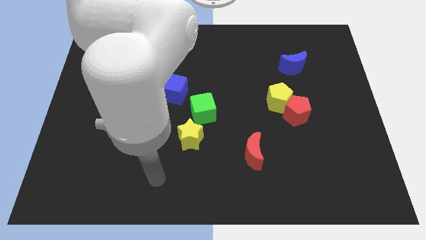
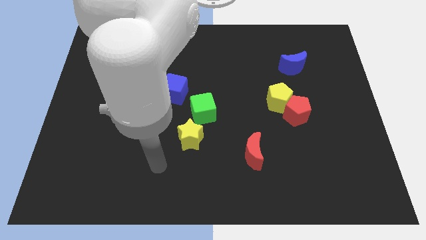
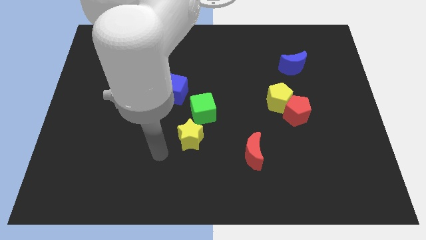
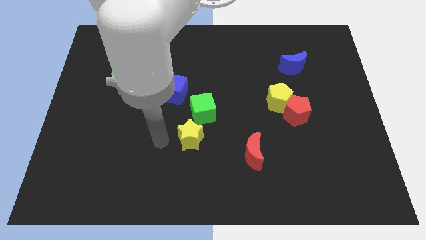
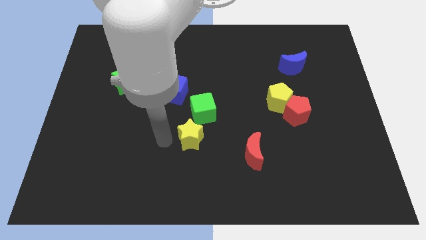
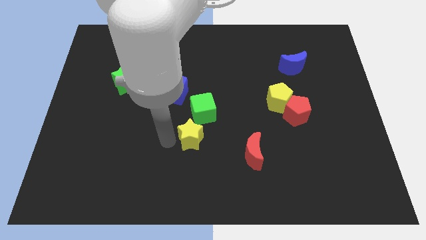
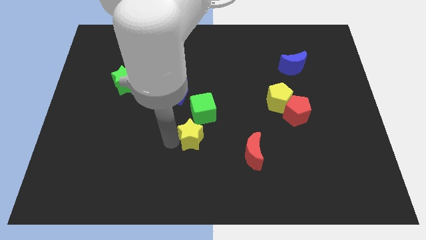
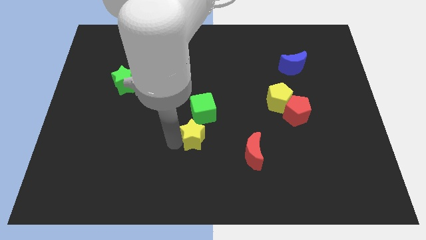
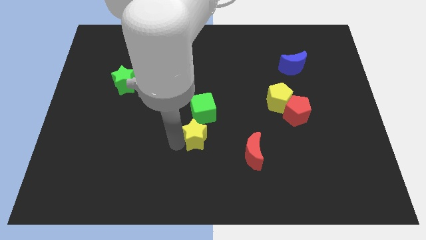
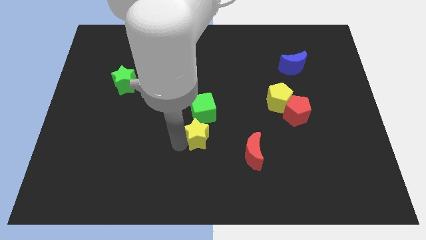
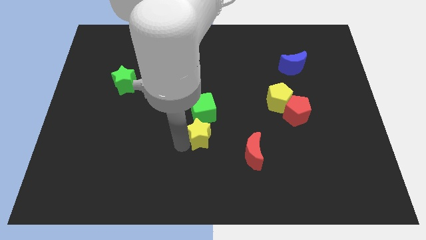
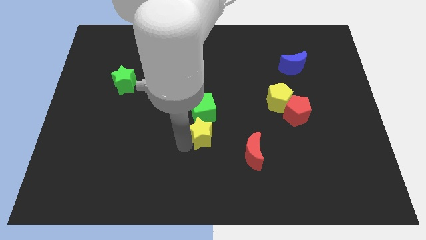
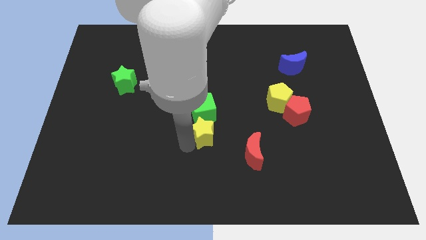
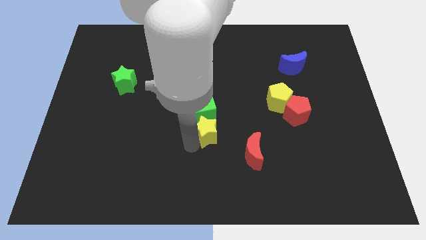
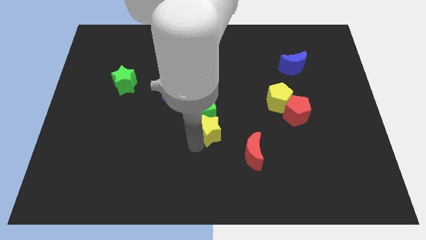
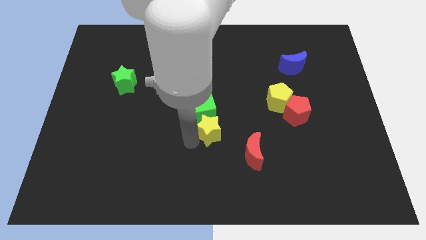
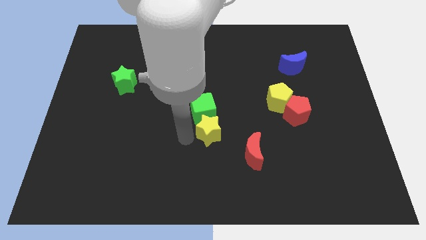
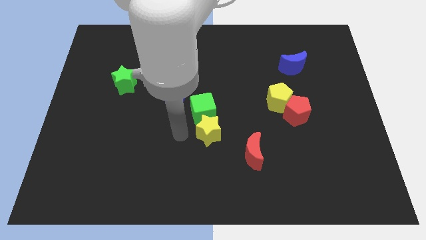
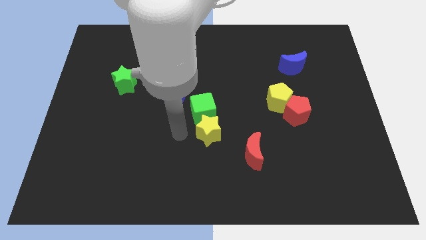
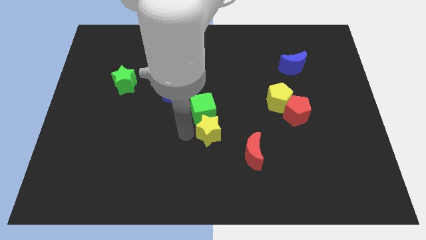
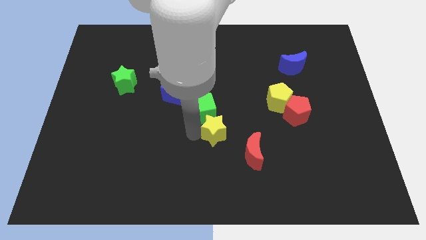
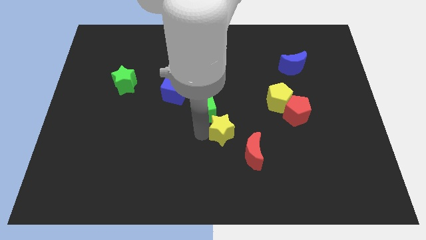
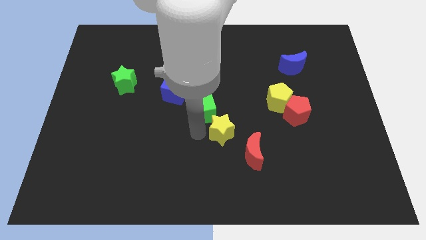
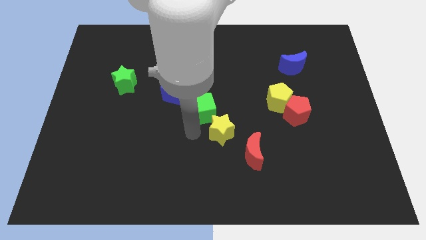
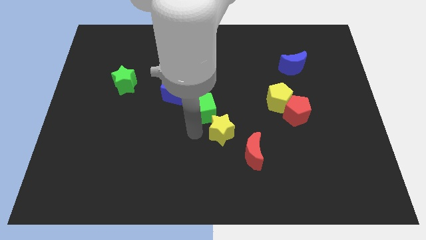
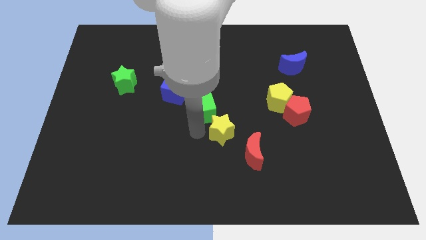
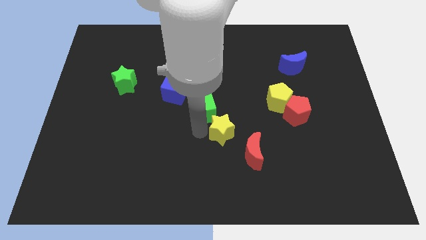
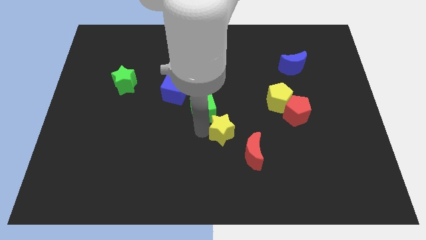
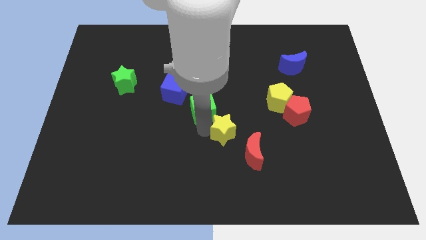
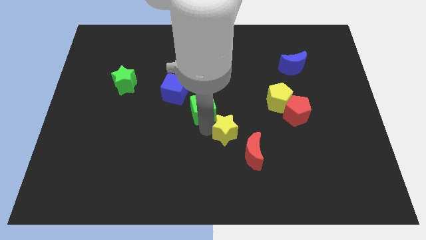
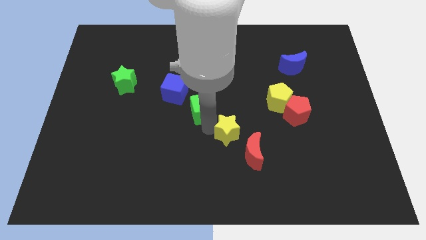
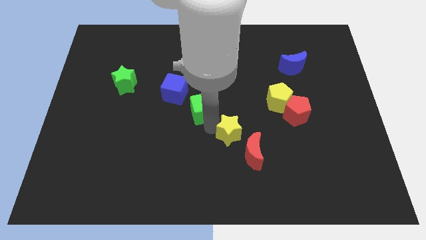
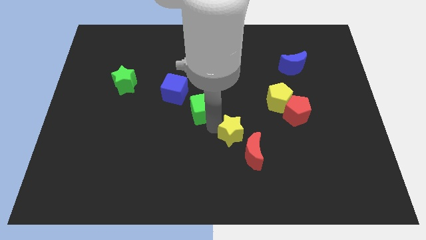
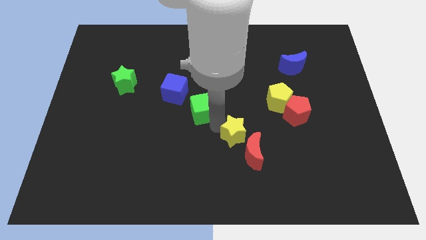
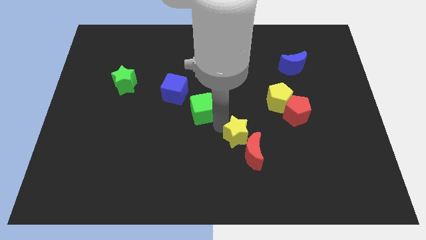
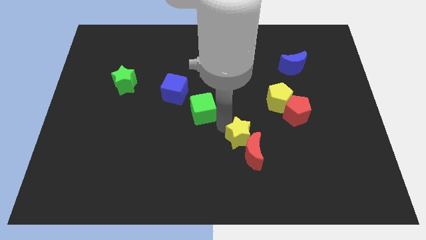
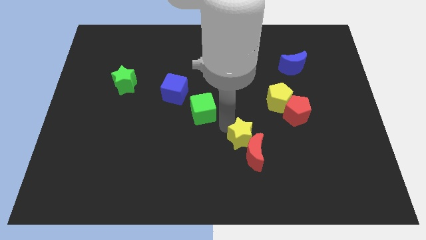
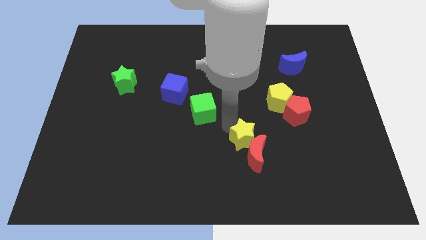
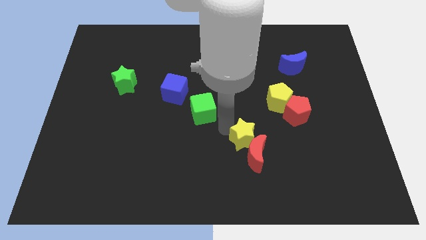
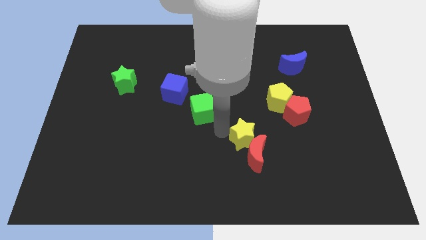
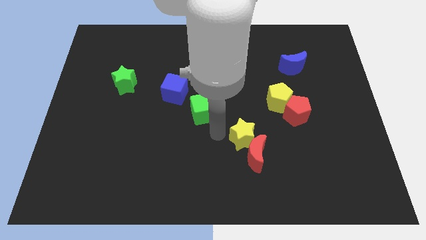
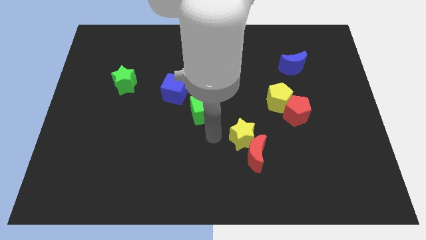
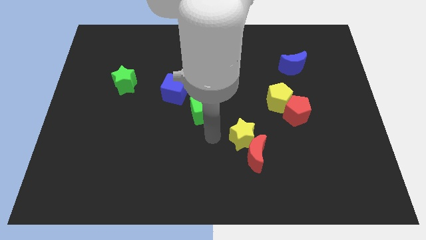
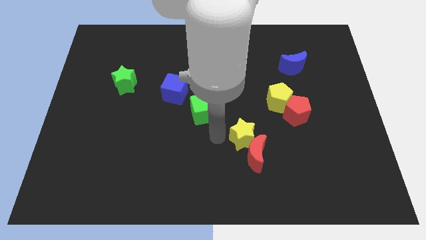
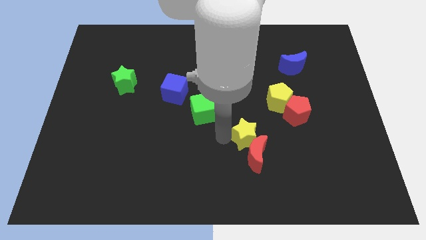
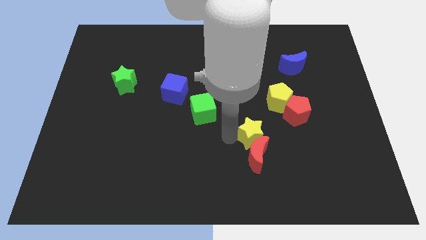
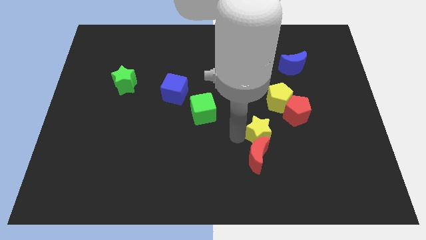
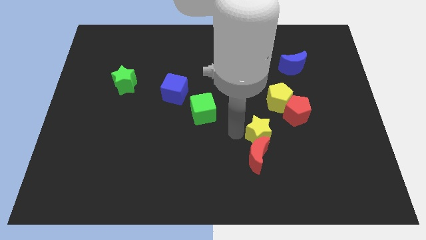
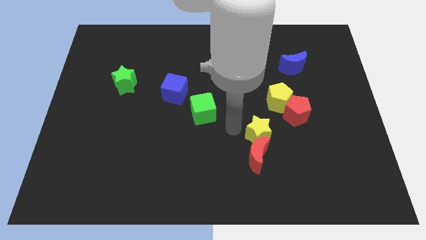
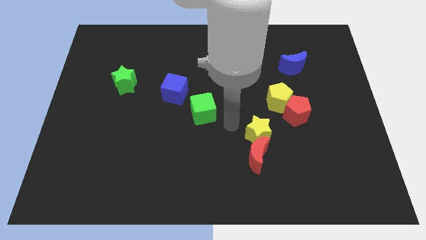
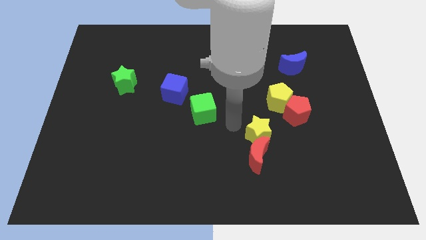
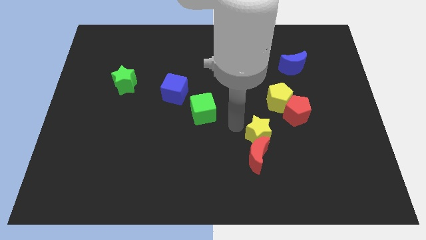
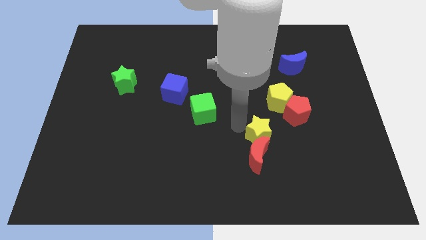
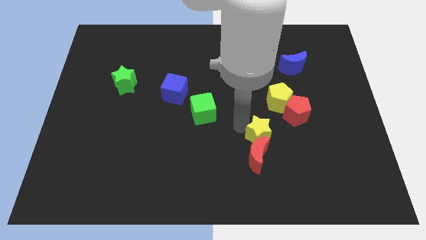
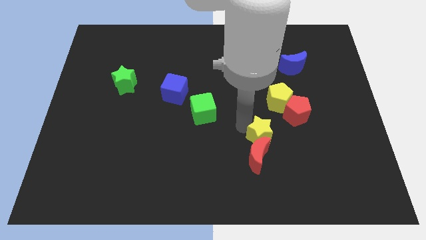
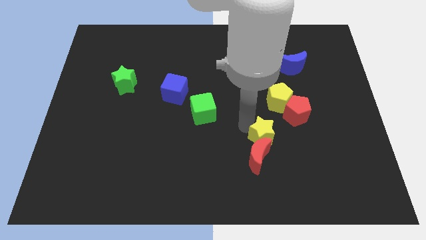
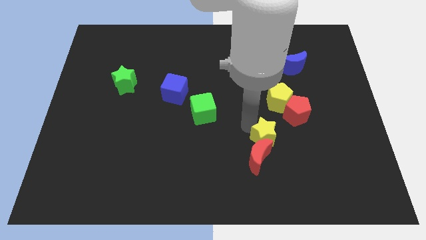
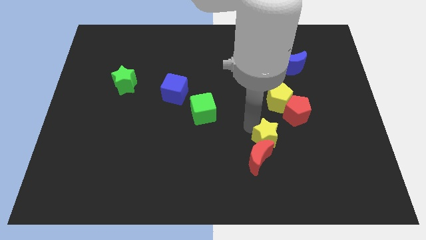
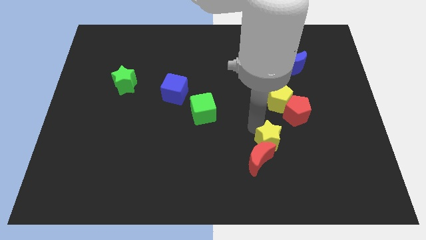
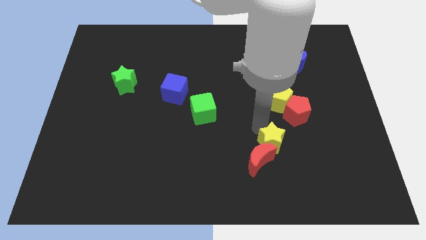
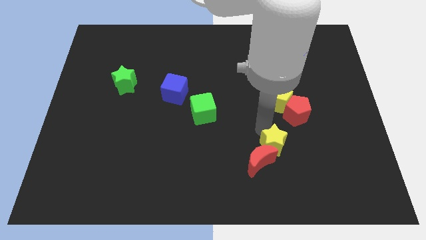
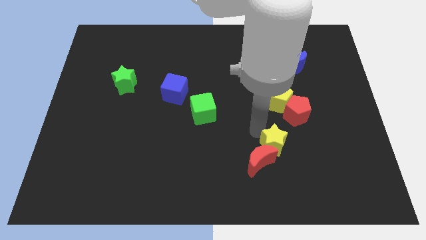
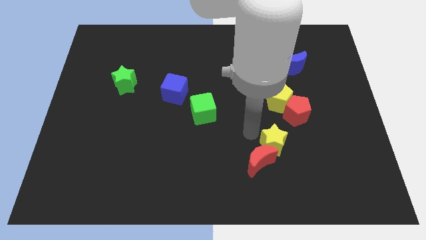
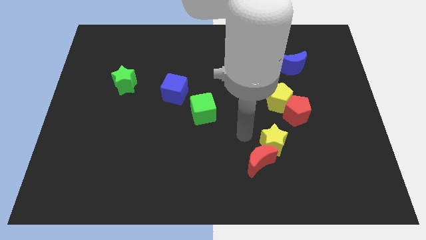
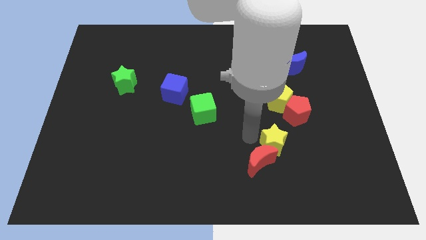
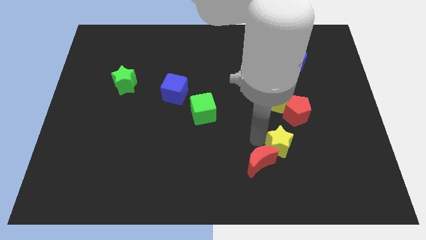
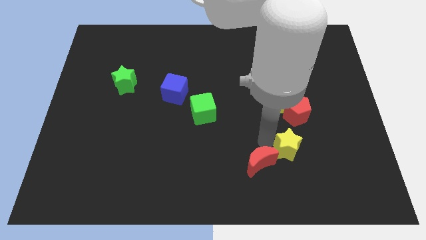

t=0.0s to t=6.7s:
put the yellow star to the bottom of the red pentagon
